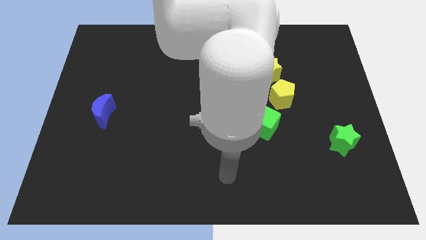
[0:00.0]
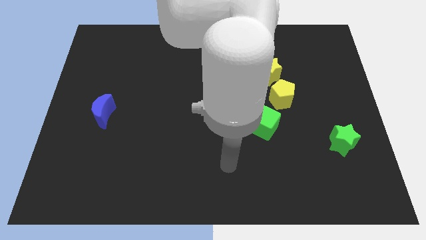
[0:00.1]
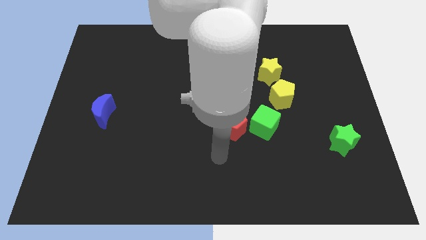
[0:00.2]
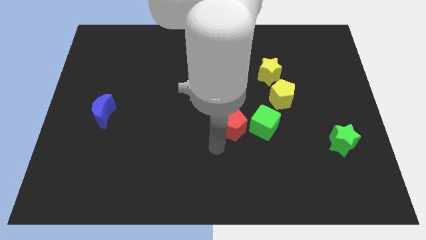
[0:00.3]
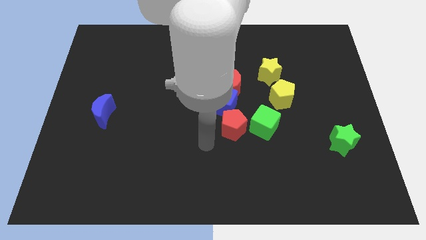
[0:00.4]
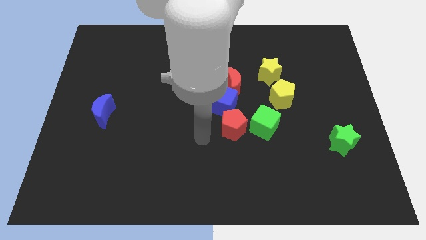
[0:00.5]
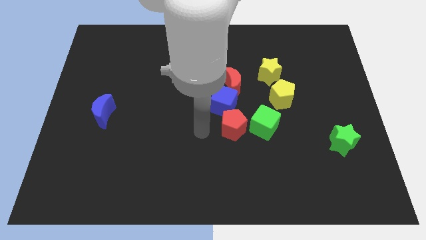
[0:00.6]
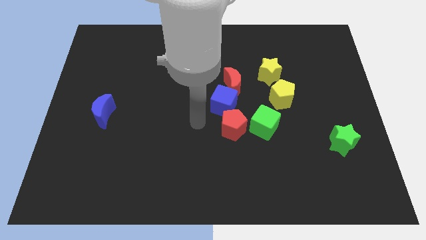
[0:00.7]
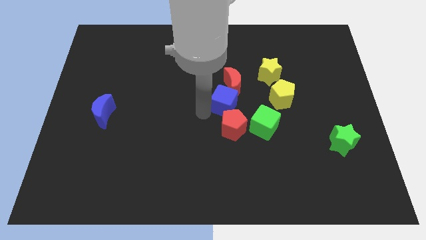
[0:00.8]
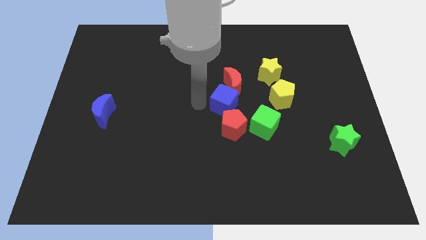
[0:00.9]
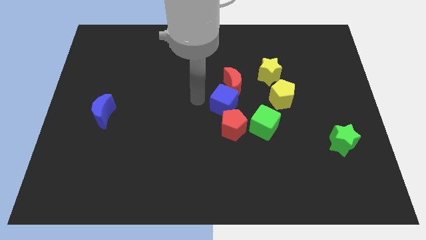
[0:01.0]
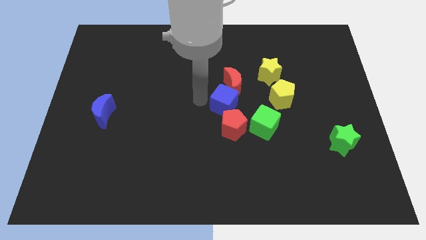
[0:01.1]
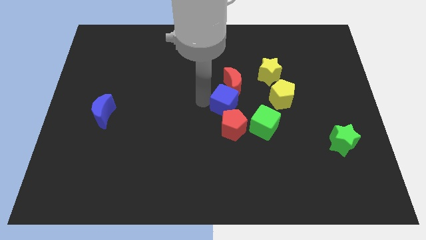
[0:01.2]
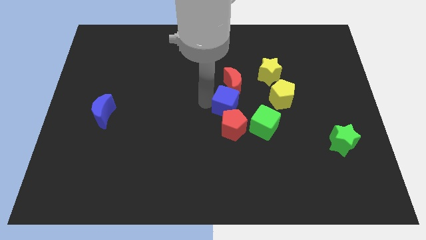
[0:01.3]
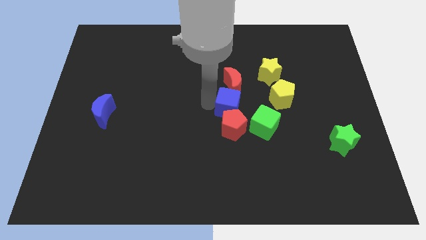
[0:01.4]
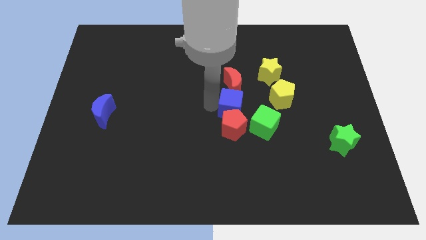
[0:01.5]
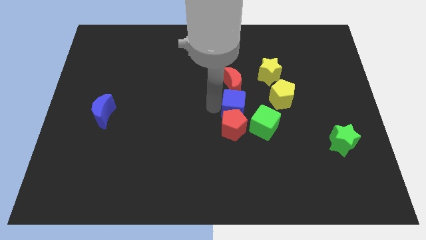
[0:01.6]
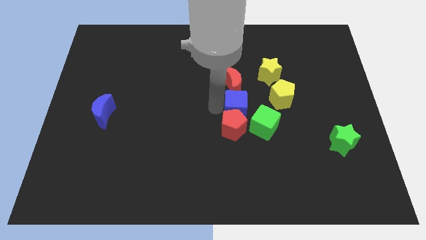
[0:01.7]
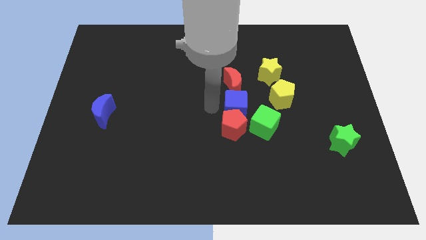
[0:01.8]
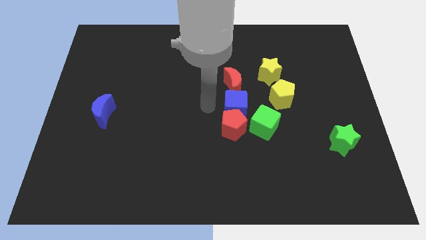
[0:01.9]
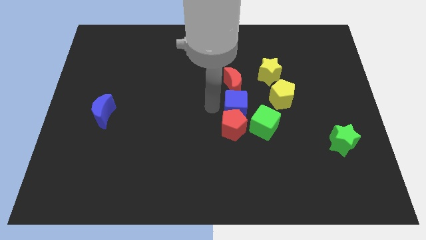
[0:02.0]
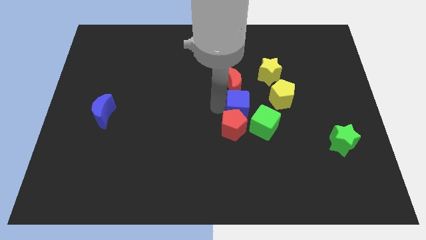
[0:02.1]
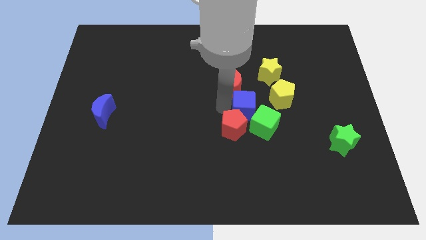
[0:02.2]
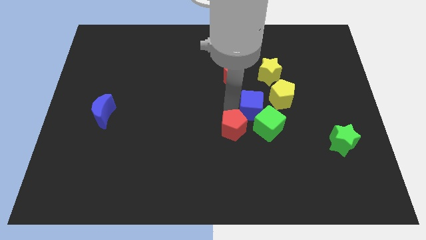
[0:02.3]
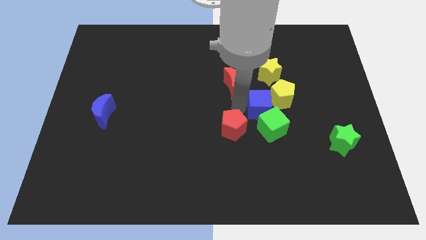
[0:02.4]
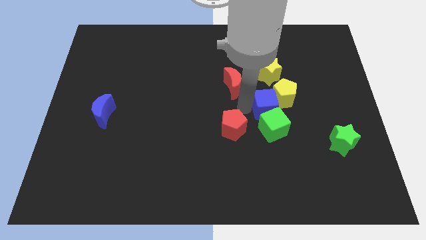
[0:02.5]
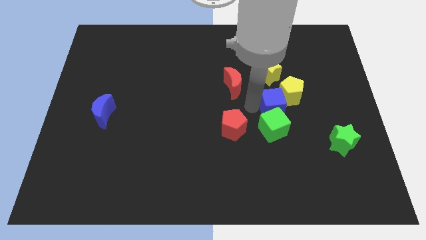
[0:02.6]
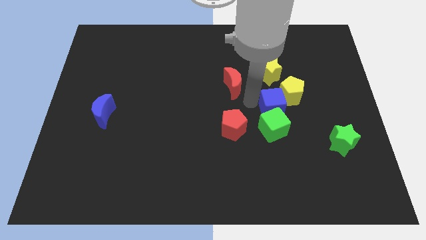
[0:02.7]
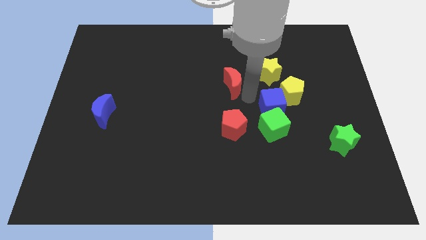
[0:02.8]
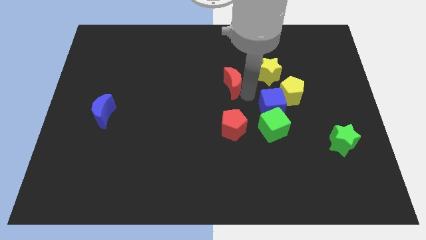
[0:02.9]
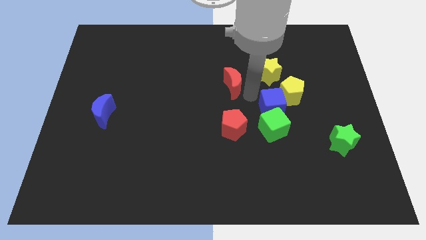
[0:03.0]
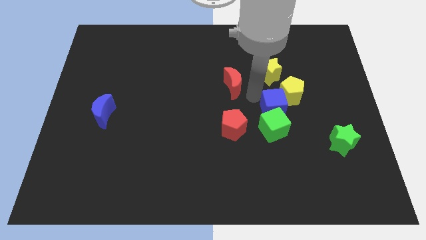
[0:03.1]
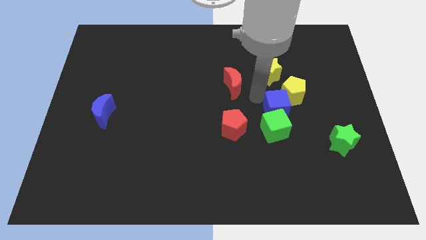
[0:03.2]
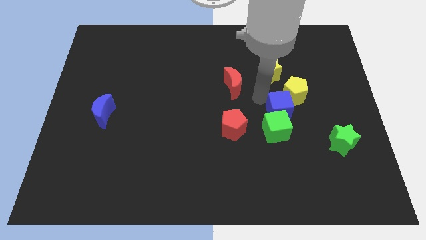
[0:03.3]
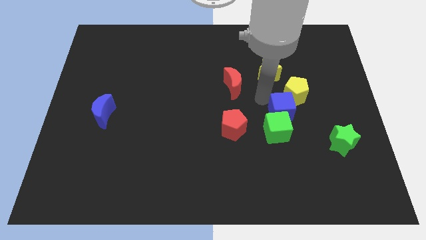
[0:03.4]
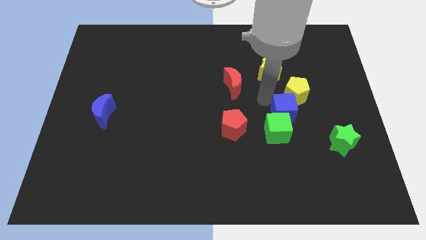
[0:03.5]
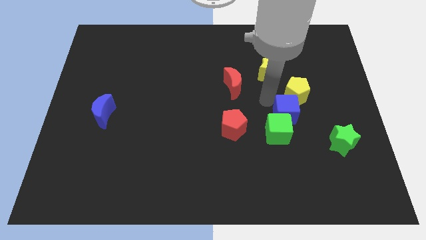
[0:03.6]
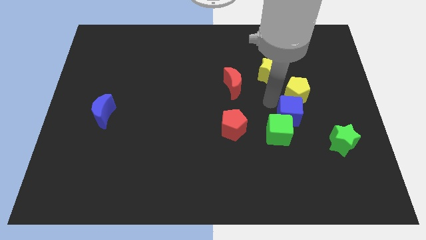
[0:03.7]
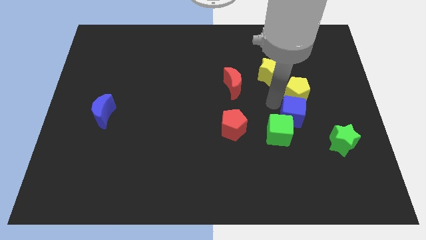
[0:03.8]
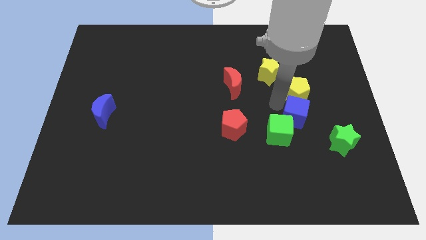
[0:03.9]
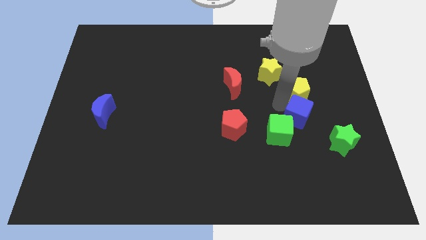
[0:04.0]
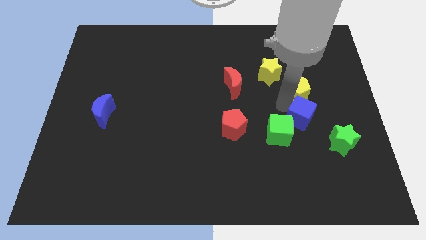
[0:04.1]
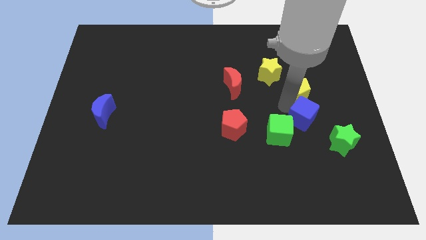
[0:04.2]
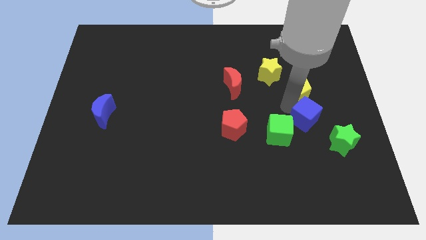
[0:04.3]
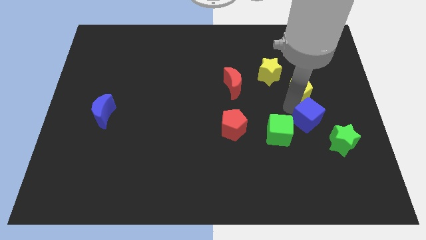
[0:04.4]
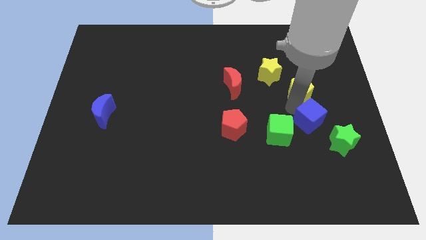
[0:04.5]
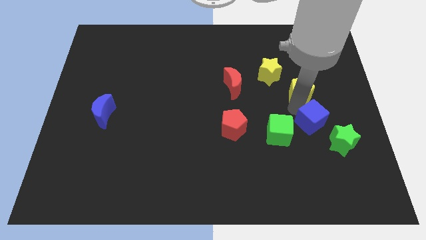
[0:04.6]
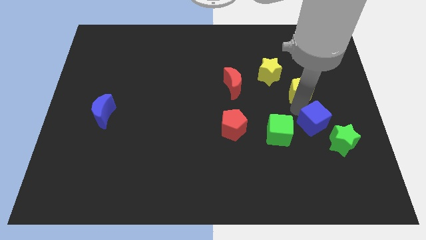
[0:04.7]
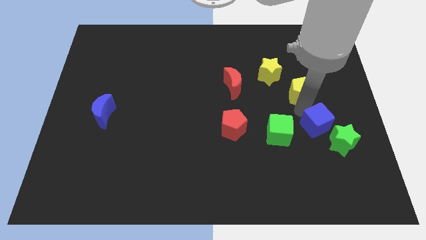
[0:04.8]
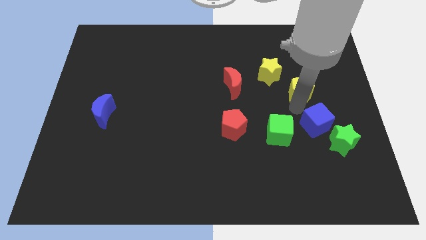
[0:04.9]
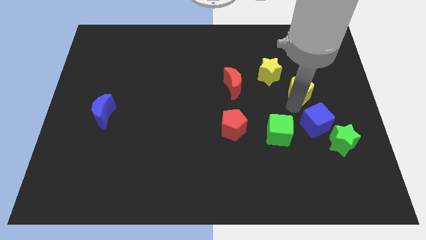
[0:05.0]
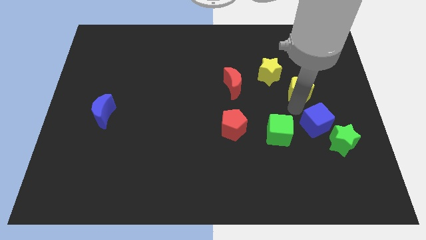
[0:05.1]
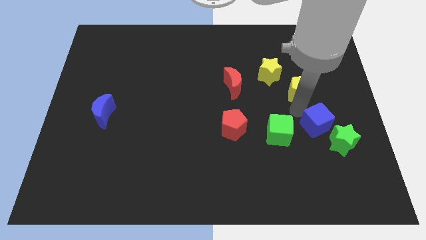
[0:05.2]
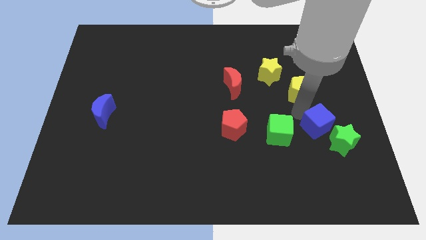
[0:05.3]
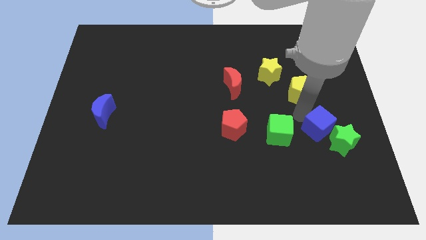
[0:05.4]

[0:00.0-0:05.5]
move the blue cube next to the green star

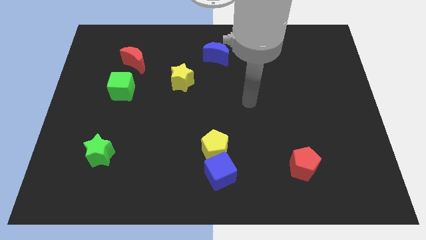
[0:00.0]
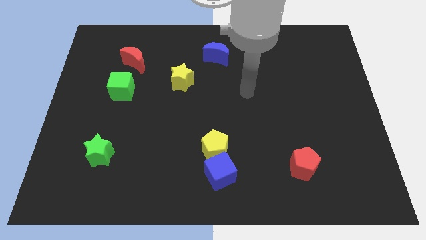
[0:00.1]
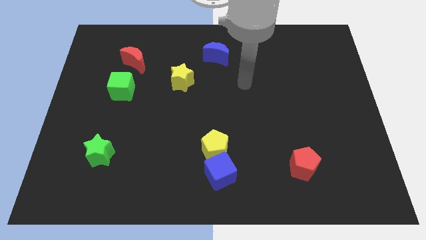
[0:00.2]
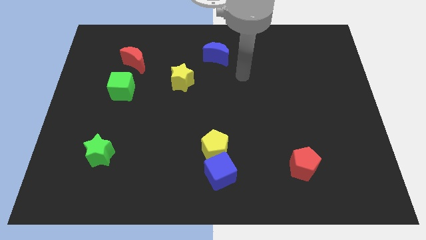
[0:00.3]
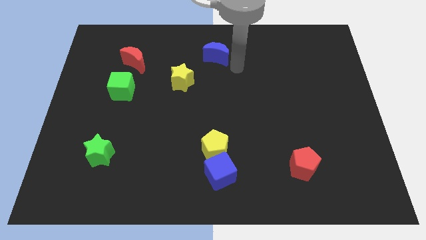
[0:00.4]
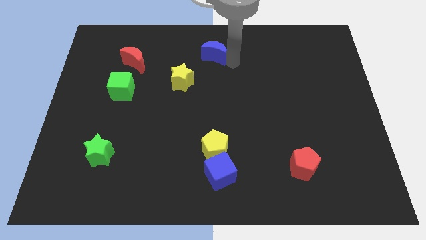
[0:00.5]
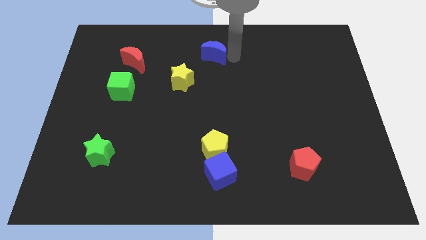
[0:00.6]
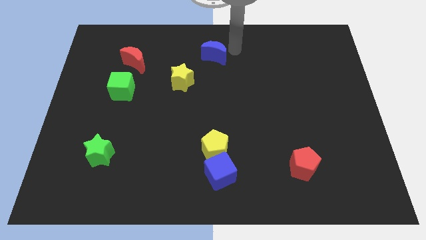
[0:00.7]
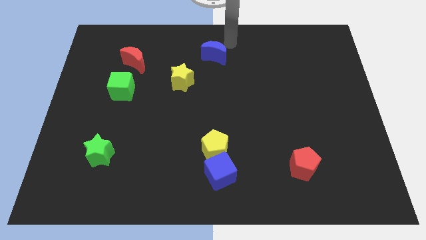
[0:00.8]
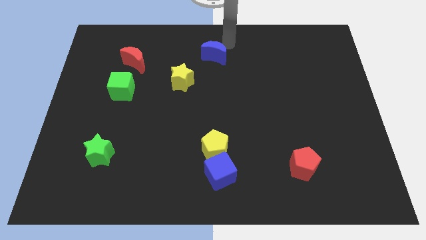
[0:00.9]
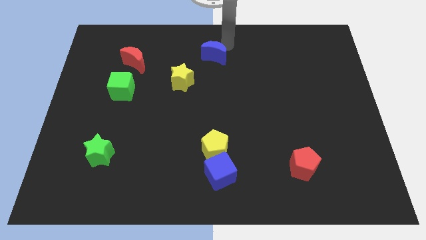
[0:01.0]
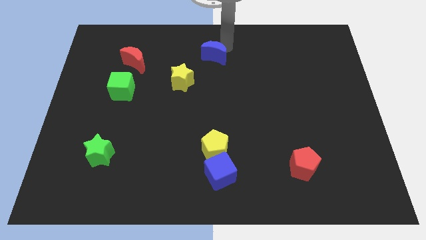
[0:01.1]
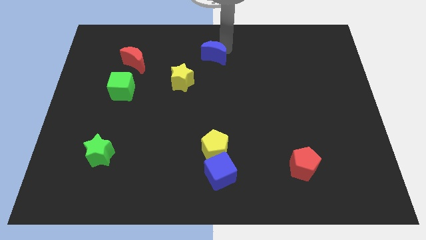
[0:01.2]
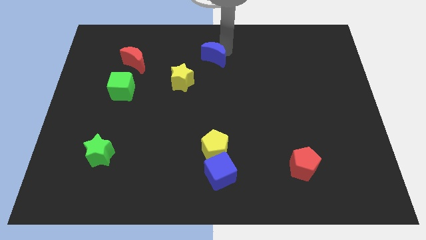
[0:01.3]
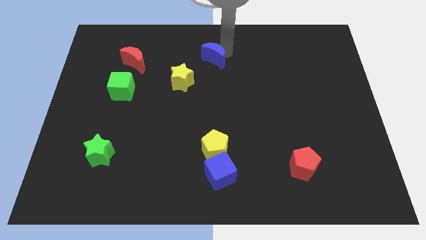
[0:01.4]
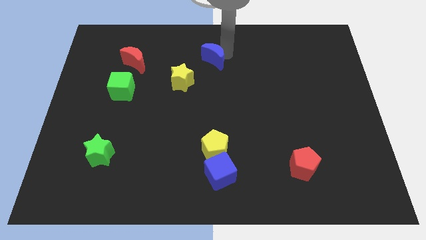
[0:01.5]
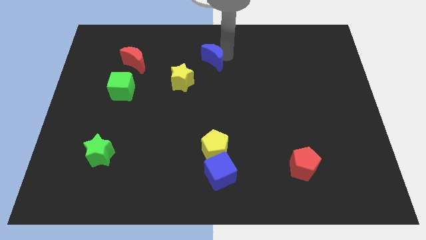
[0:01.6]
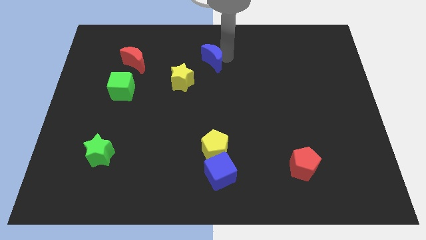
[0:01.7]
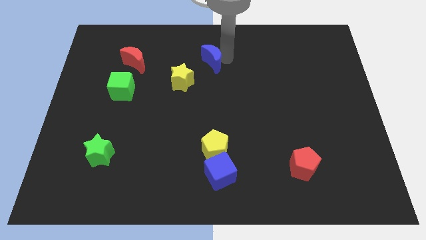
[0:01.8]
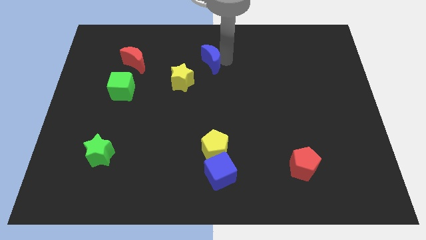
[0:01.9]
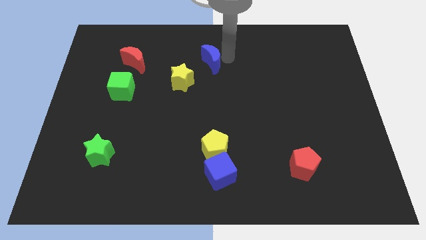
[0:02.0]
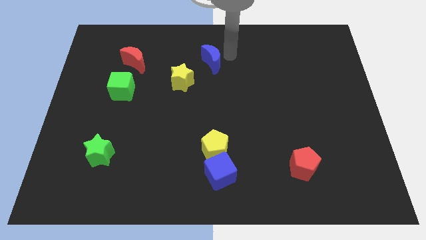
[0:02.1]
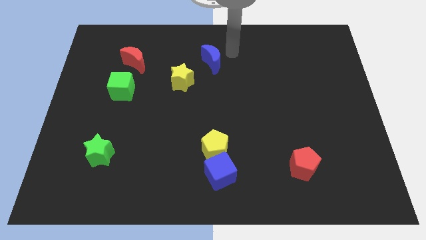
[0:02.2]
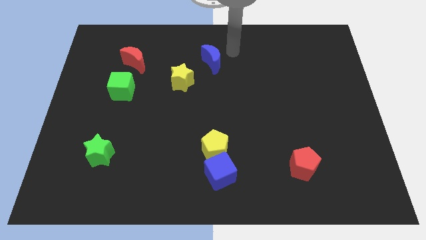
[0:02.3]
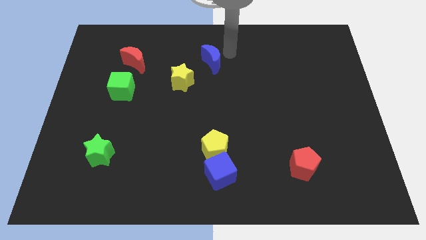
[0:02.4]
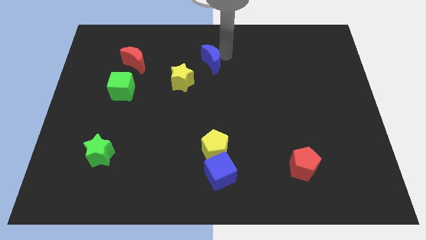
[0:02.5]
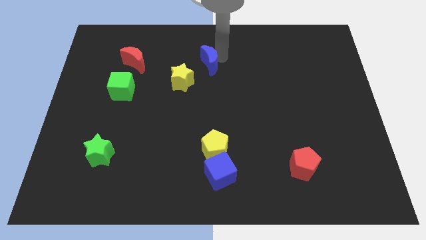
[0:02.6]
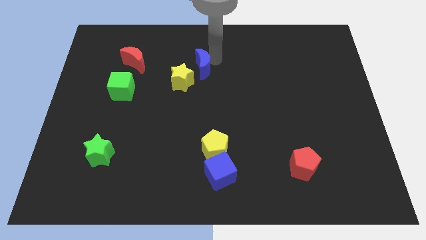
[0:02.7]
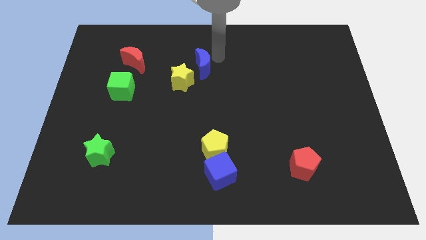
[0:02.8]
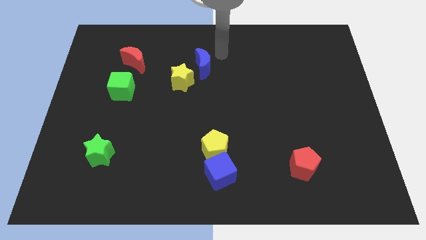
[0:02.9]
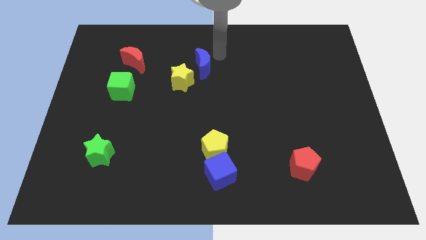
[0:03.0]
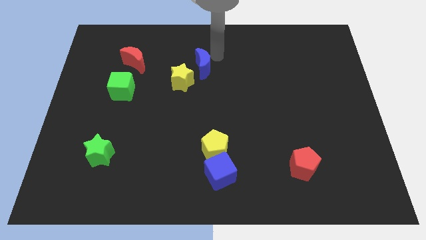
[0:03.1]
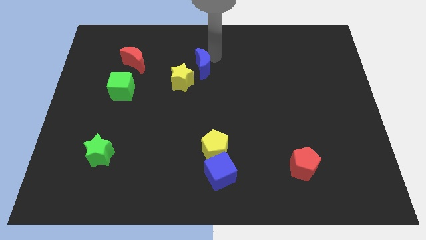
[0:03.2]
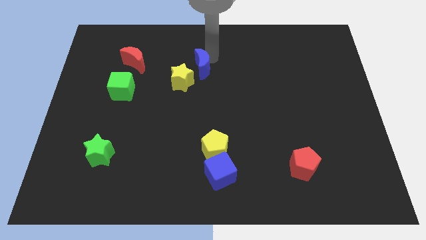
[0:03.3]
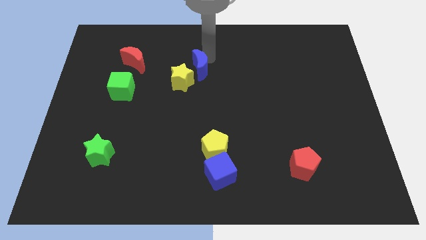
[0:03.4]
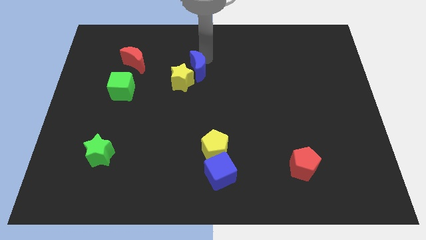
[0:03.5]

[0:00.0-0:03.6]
move the blue moon to the yellow star
